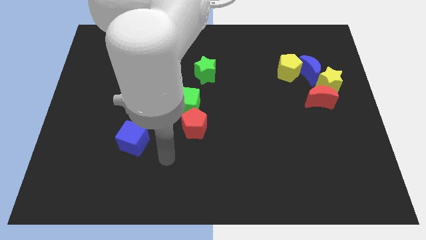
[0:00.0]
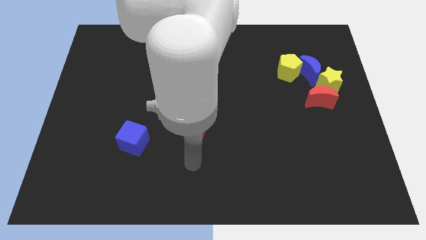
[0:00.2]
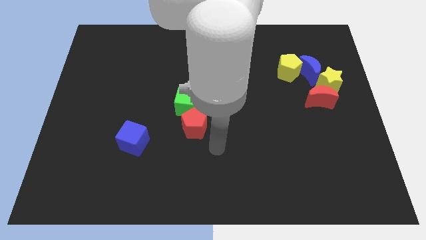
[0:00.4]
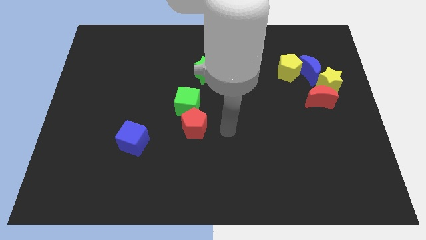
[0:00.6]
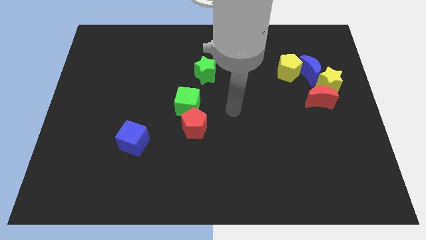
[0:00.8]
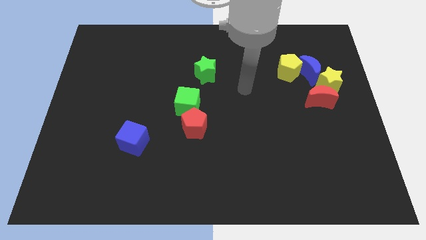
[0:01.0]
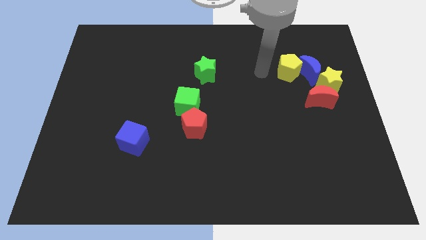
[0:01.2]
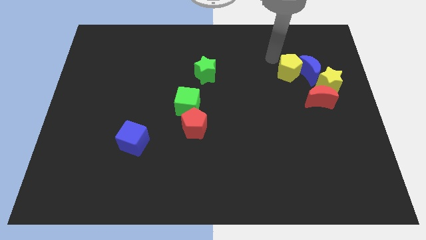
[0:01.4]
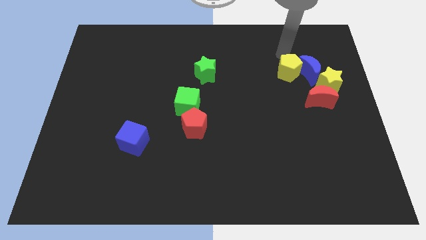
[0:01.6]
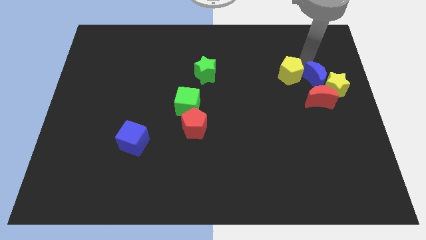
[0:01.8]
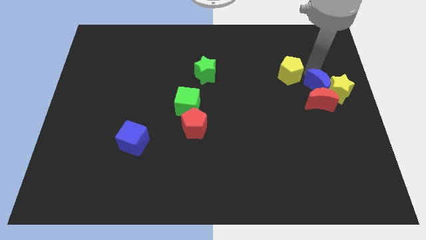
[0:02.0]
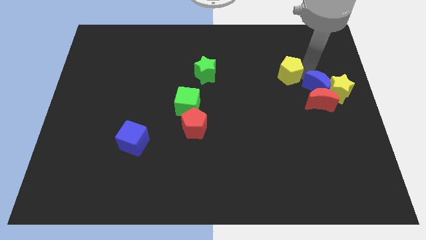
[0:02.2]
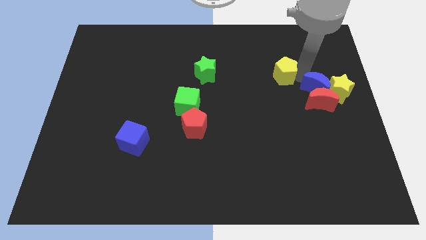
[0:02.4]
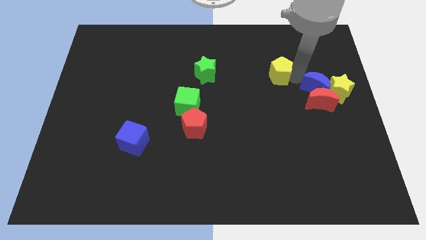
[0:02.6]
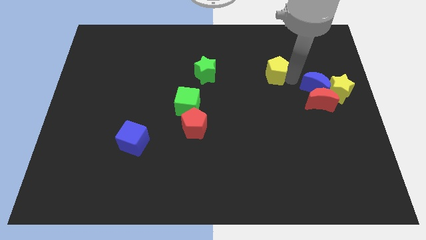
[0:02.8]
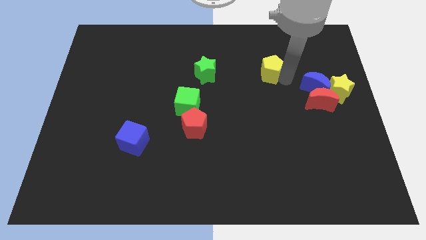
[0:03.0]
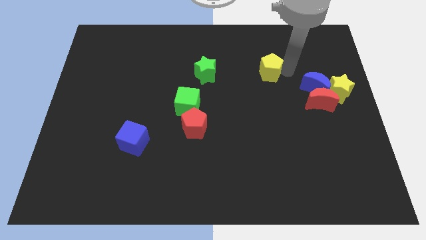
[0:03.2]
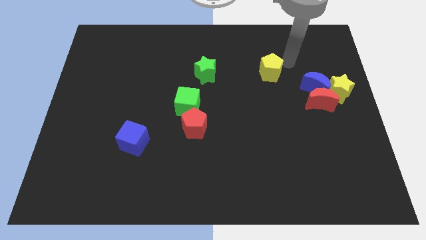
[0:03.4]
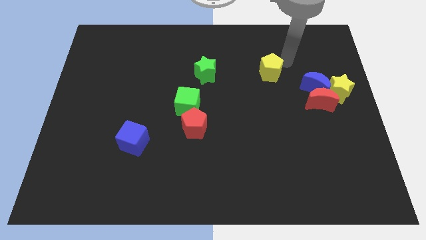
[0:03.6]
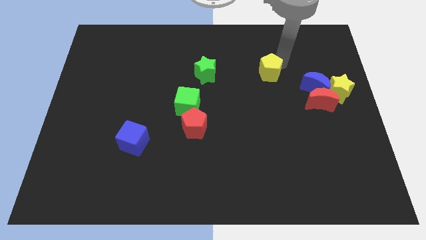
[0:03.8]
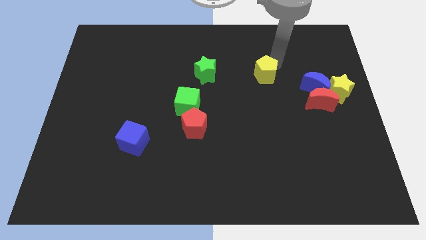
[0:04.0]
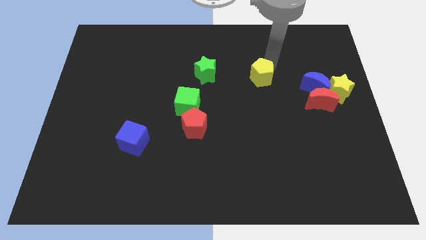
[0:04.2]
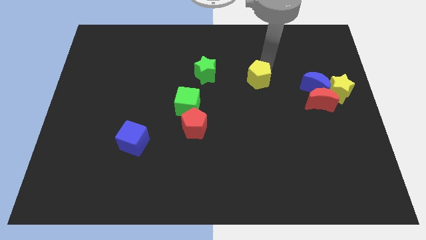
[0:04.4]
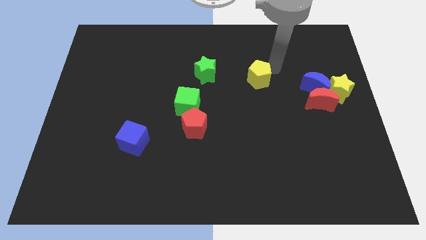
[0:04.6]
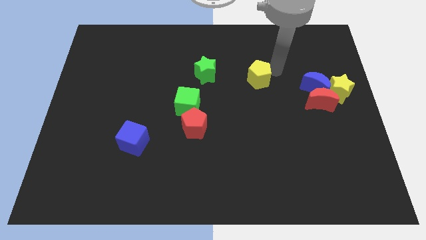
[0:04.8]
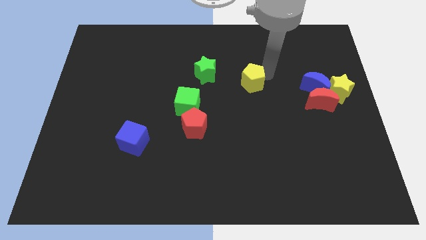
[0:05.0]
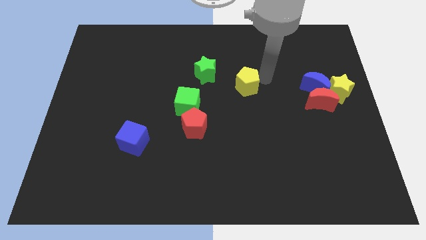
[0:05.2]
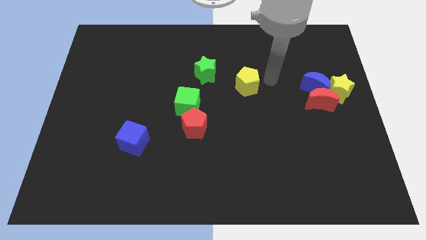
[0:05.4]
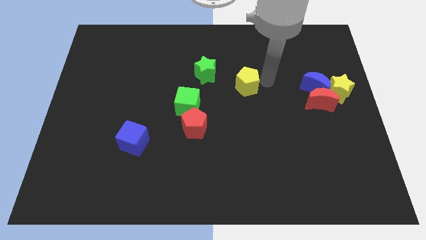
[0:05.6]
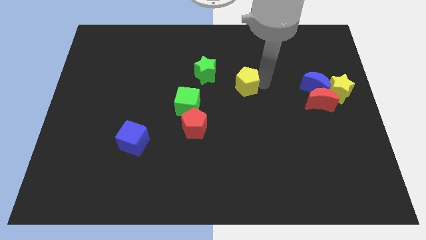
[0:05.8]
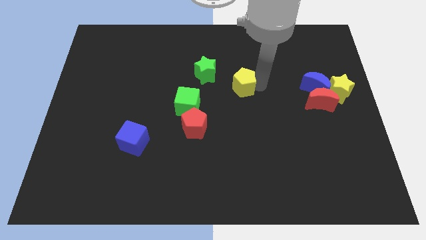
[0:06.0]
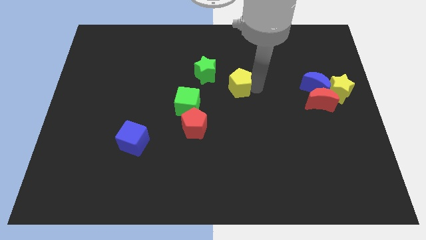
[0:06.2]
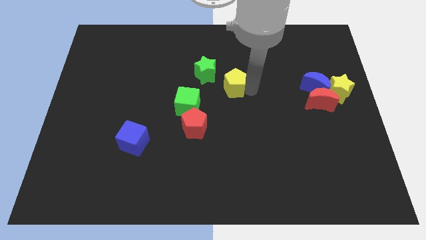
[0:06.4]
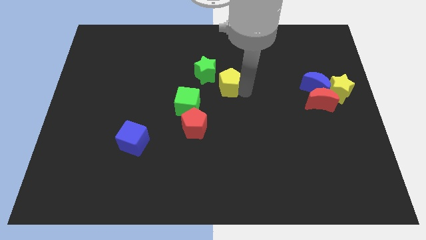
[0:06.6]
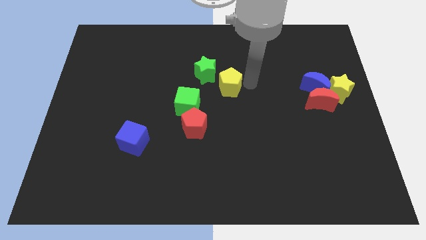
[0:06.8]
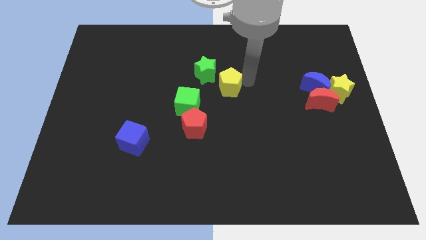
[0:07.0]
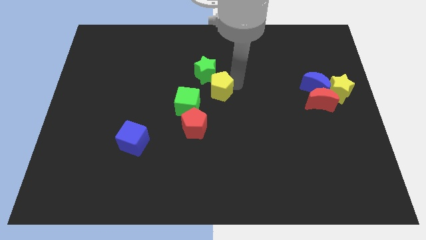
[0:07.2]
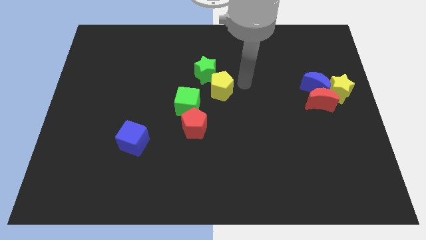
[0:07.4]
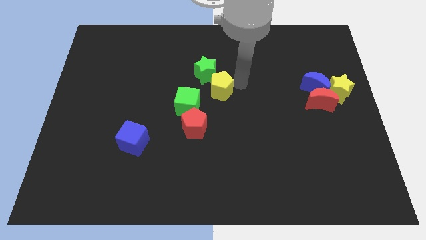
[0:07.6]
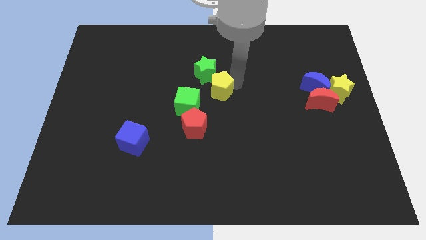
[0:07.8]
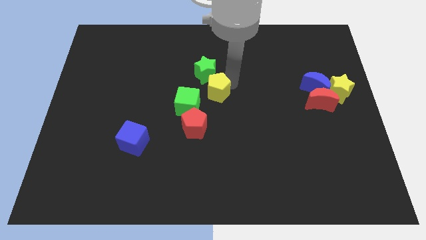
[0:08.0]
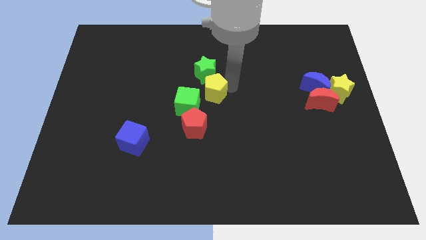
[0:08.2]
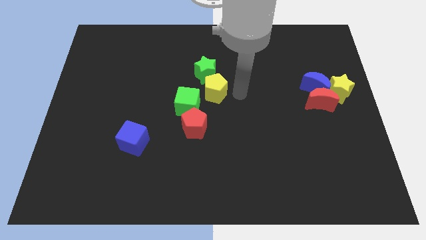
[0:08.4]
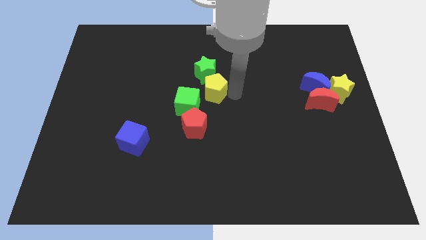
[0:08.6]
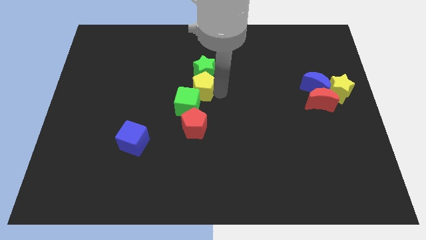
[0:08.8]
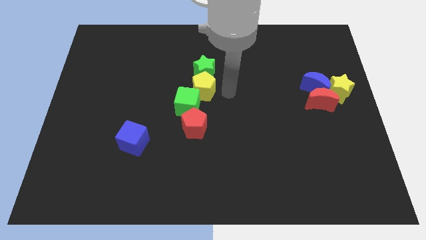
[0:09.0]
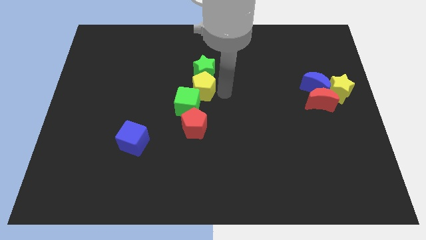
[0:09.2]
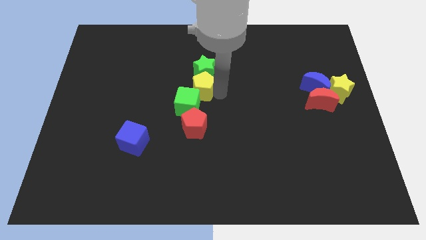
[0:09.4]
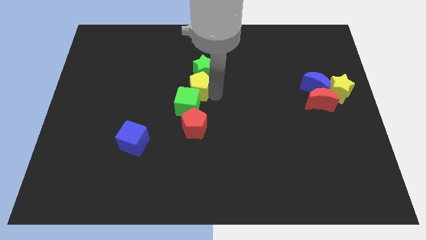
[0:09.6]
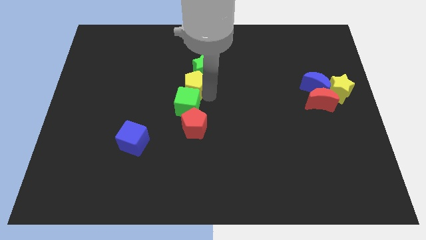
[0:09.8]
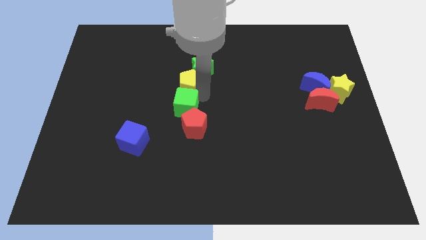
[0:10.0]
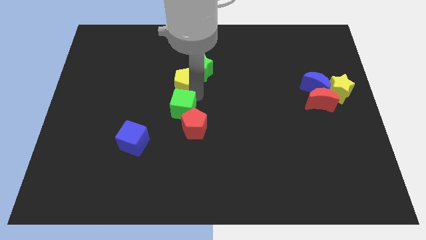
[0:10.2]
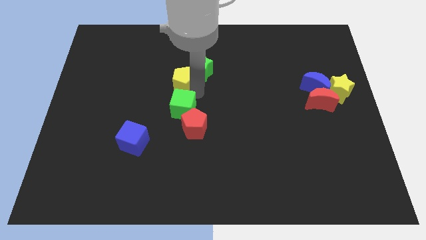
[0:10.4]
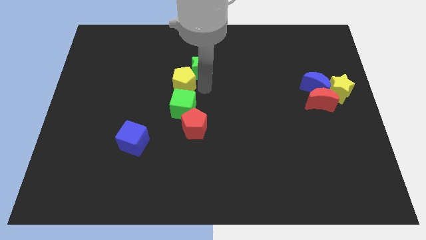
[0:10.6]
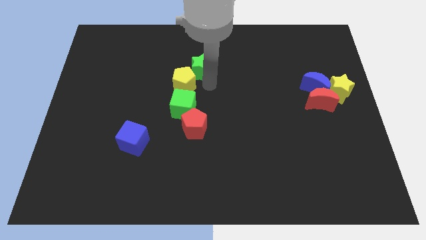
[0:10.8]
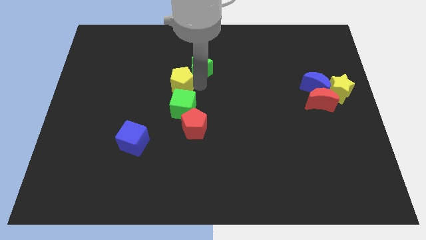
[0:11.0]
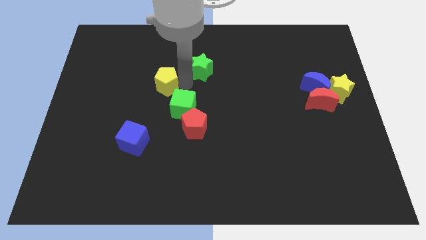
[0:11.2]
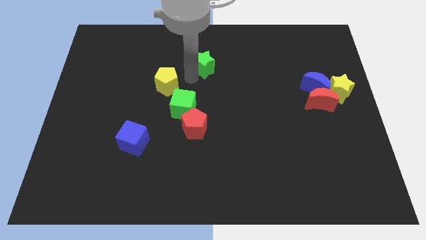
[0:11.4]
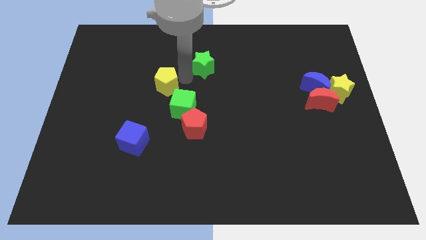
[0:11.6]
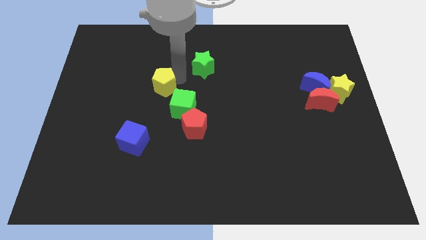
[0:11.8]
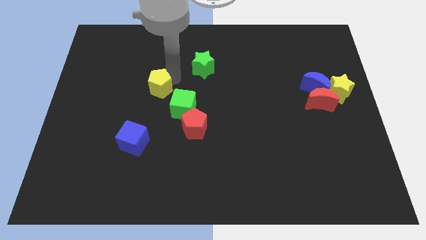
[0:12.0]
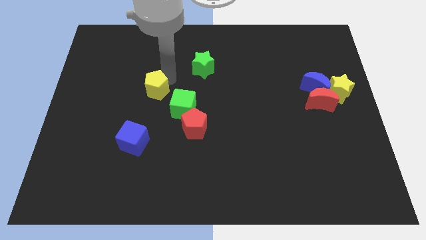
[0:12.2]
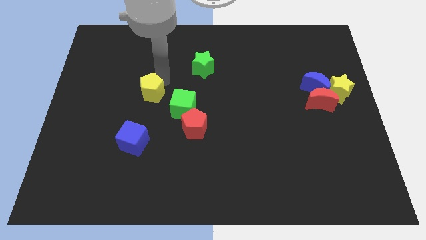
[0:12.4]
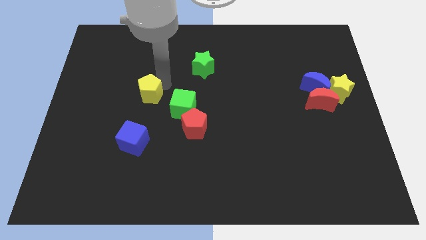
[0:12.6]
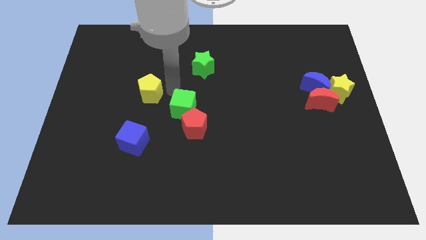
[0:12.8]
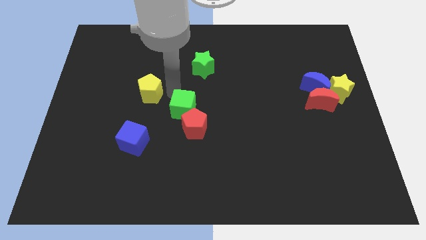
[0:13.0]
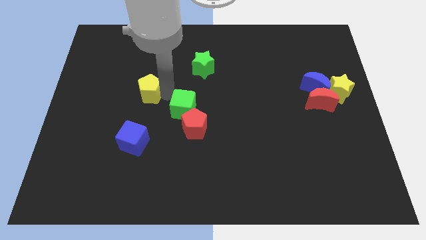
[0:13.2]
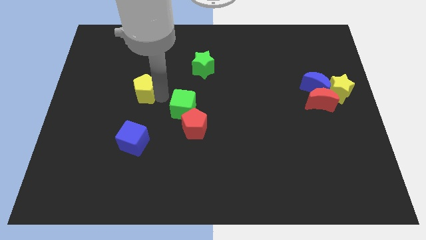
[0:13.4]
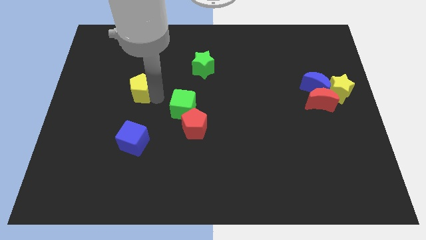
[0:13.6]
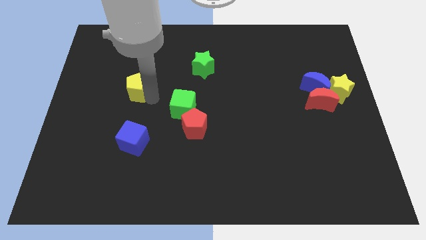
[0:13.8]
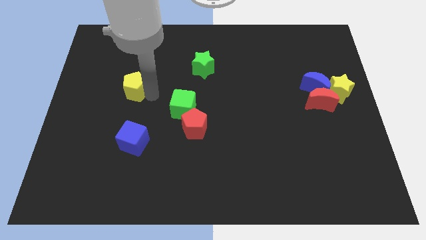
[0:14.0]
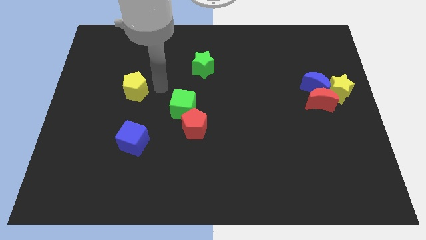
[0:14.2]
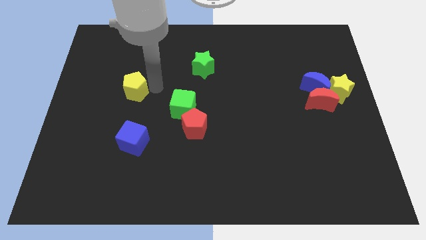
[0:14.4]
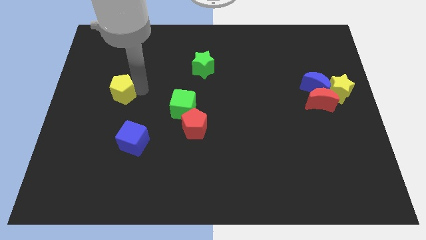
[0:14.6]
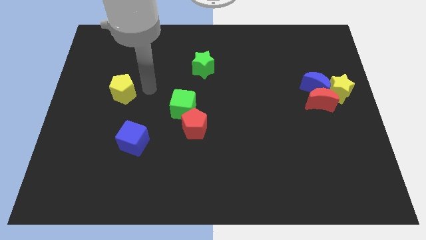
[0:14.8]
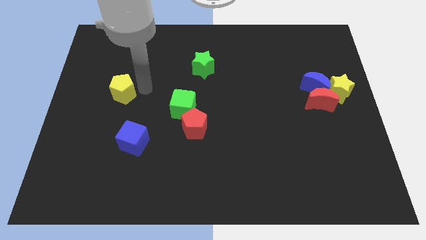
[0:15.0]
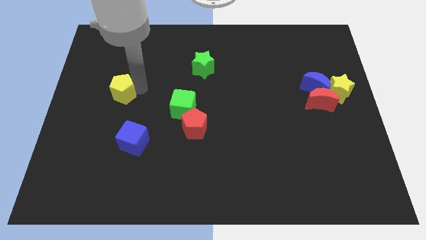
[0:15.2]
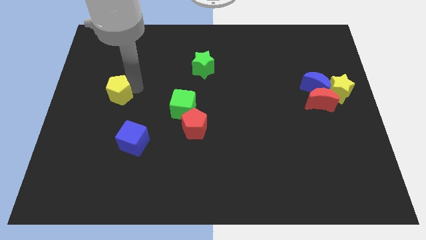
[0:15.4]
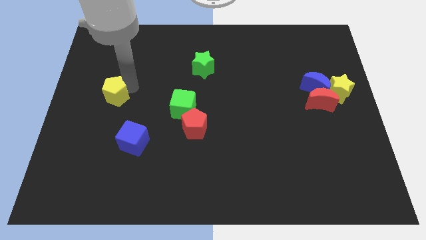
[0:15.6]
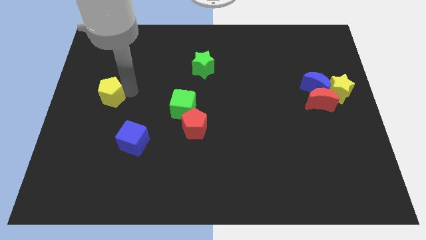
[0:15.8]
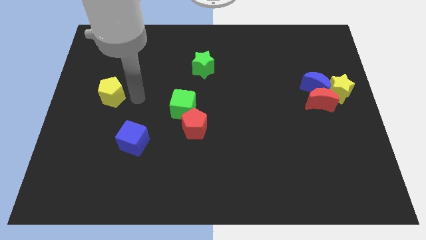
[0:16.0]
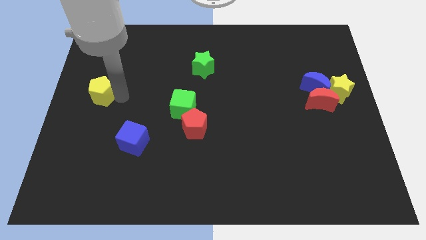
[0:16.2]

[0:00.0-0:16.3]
slide the yellow pentagon to the left side
